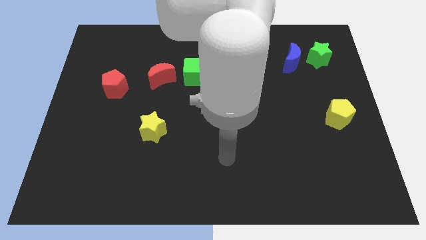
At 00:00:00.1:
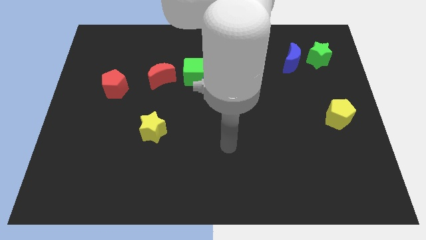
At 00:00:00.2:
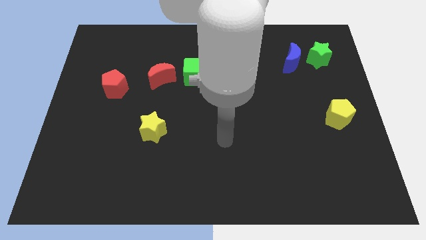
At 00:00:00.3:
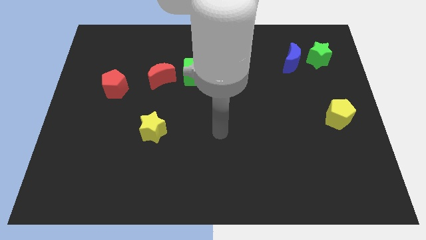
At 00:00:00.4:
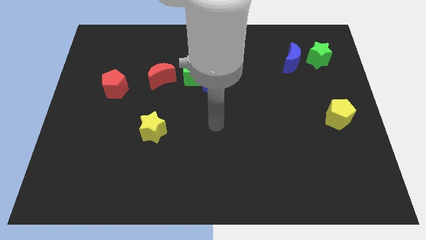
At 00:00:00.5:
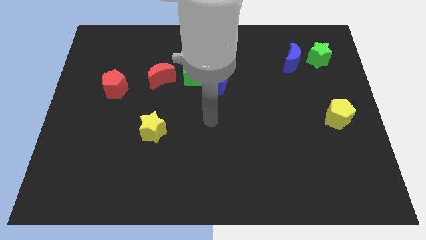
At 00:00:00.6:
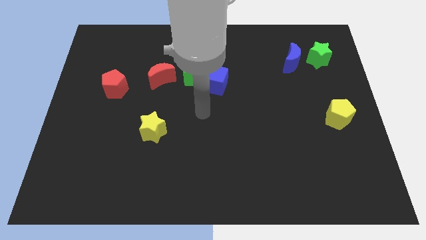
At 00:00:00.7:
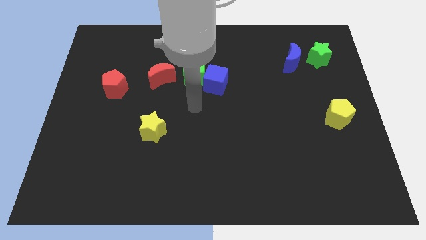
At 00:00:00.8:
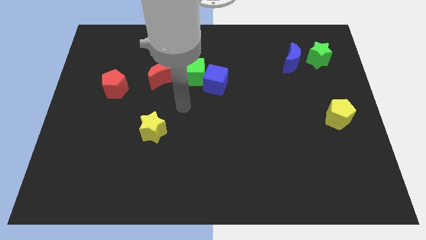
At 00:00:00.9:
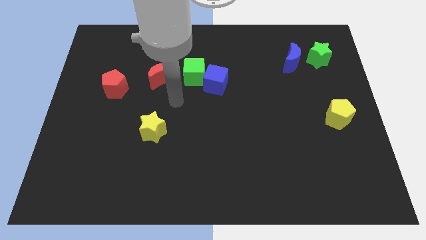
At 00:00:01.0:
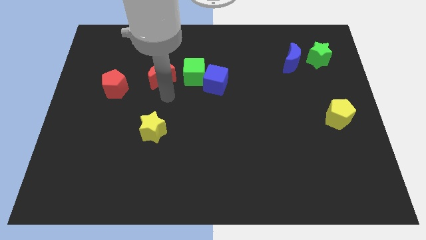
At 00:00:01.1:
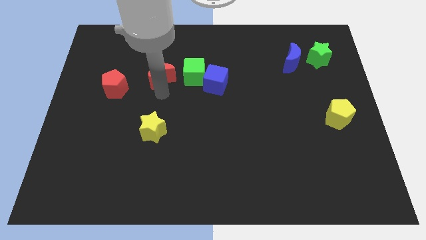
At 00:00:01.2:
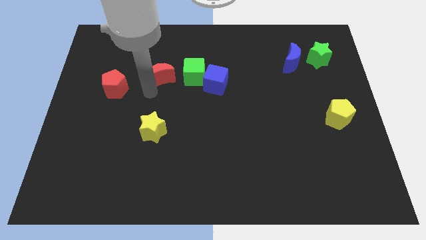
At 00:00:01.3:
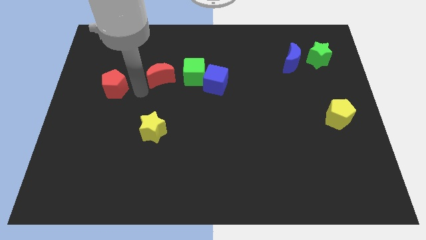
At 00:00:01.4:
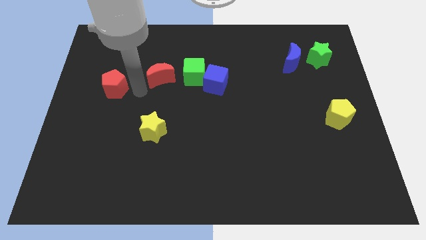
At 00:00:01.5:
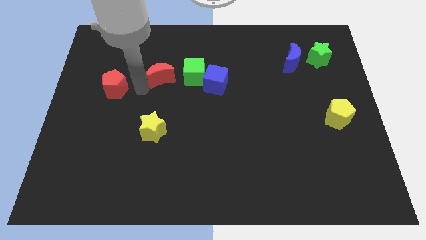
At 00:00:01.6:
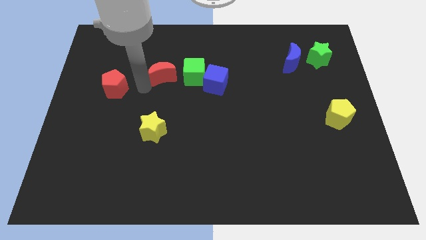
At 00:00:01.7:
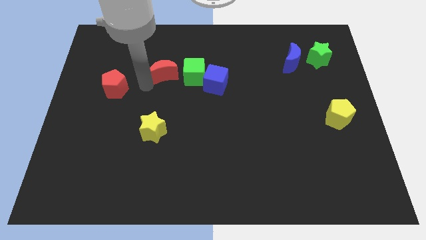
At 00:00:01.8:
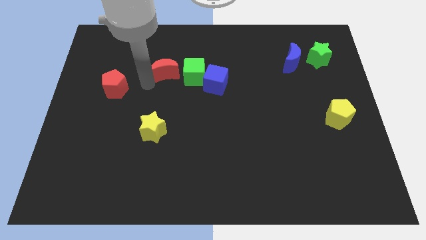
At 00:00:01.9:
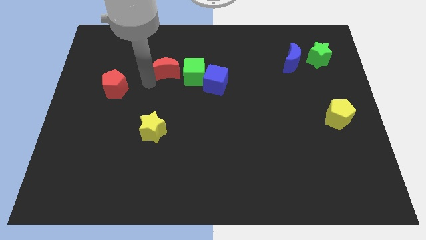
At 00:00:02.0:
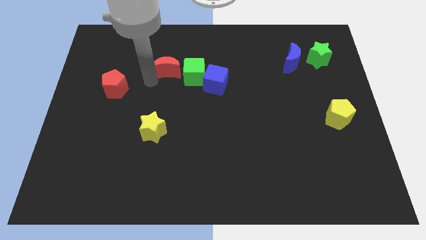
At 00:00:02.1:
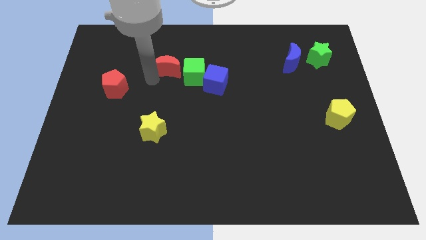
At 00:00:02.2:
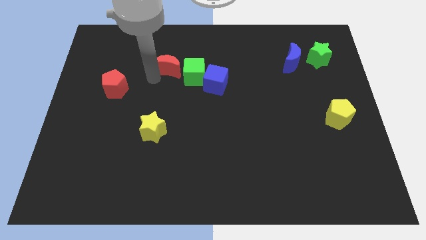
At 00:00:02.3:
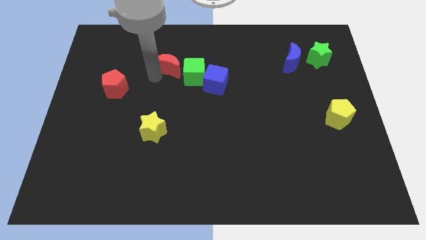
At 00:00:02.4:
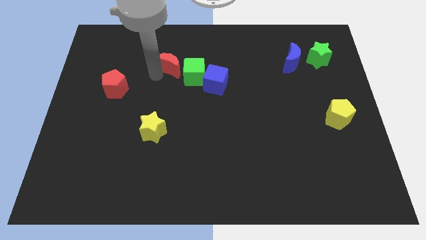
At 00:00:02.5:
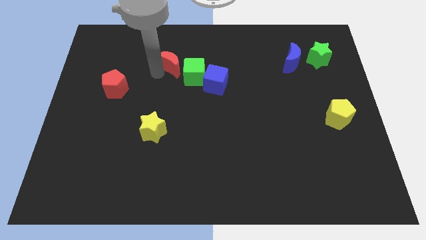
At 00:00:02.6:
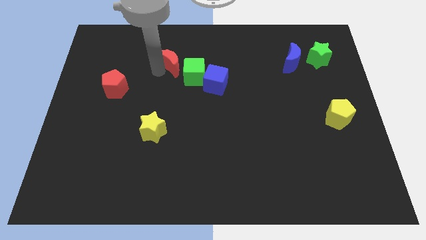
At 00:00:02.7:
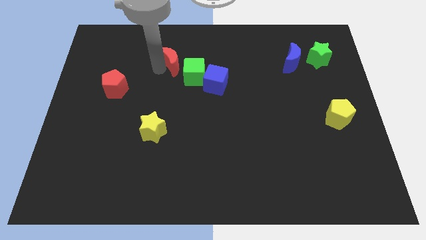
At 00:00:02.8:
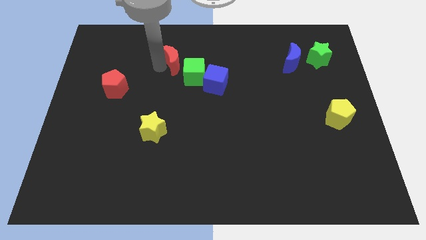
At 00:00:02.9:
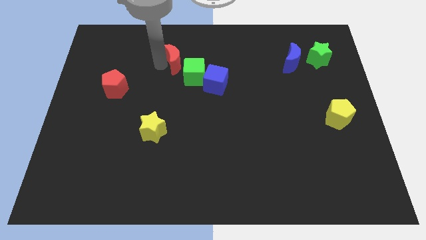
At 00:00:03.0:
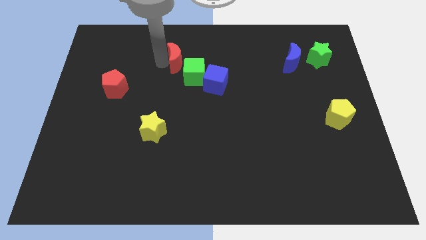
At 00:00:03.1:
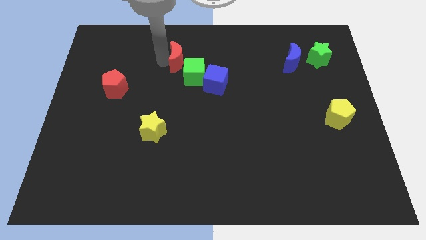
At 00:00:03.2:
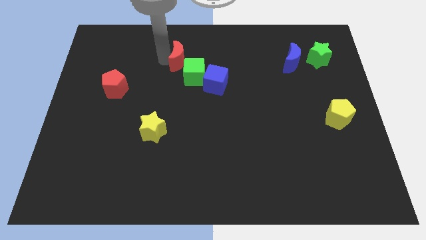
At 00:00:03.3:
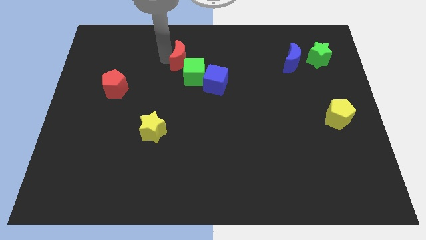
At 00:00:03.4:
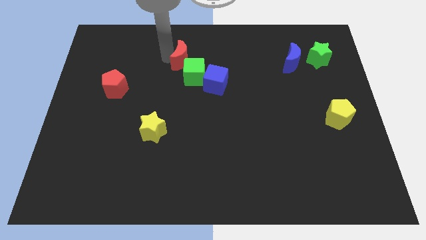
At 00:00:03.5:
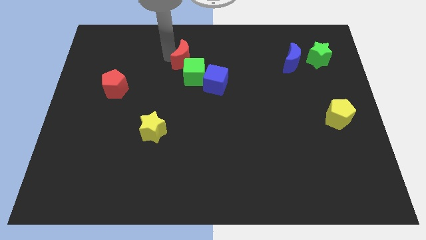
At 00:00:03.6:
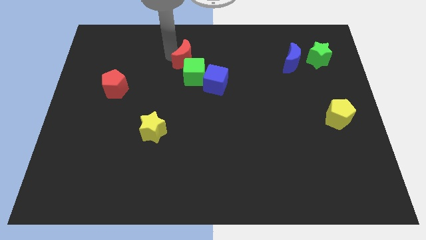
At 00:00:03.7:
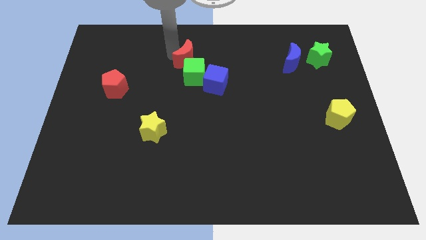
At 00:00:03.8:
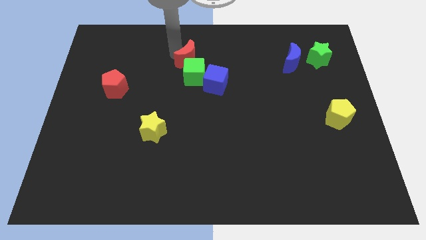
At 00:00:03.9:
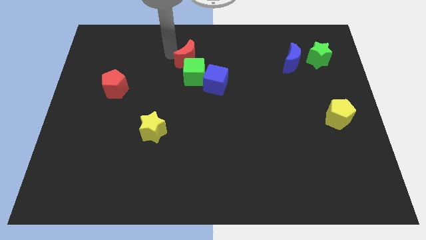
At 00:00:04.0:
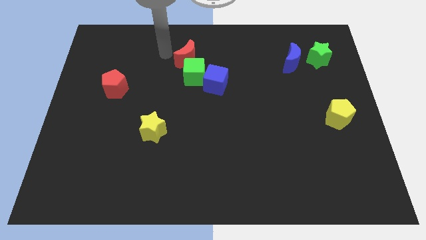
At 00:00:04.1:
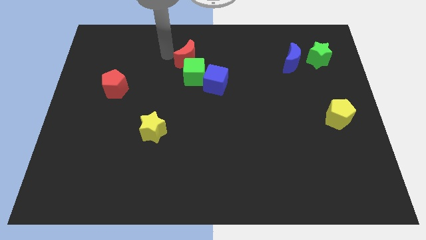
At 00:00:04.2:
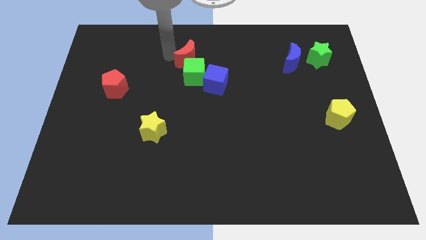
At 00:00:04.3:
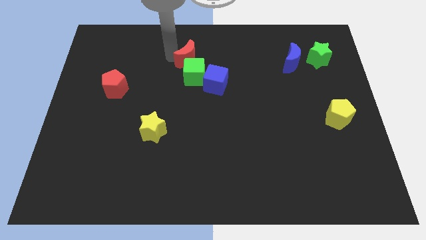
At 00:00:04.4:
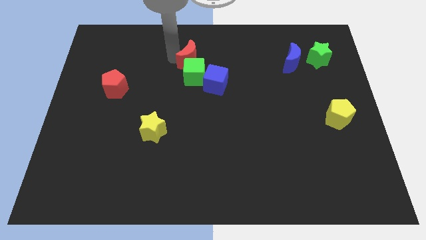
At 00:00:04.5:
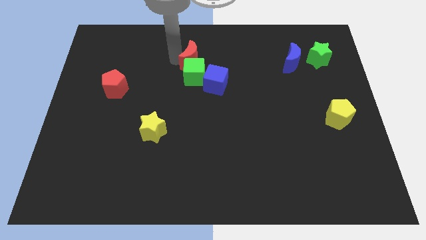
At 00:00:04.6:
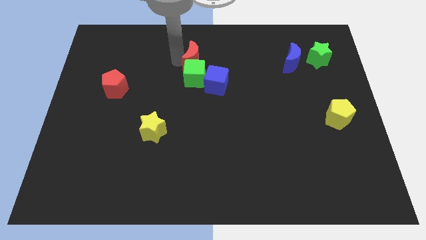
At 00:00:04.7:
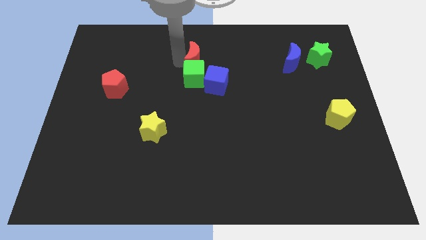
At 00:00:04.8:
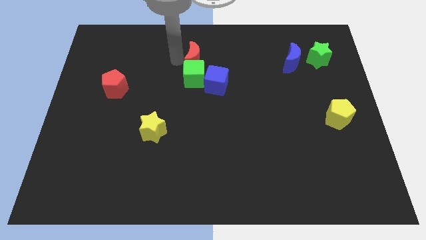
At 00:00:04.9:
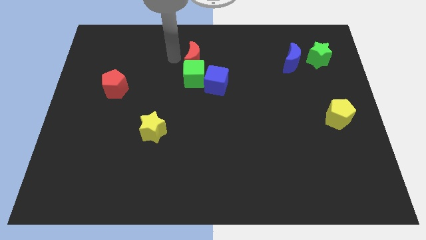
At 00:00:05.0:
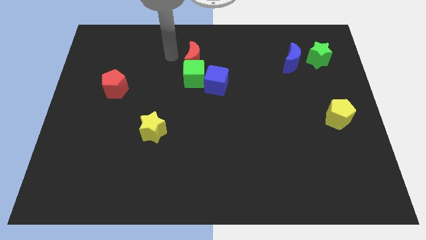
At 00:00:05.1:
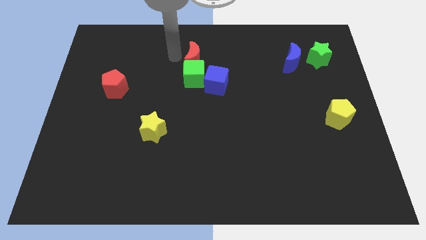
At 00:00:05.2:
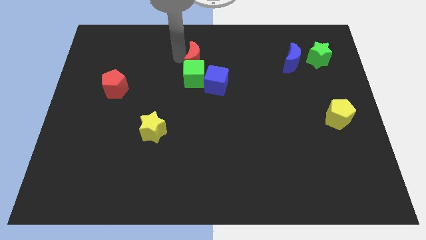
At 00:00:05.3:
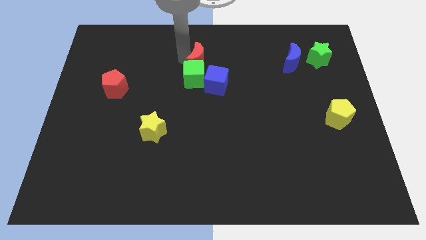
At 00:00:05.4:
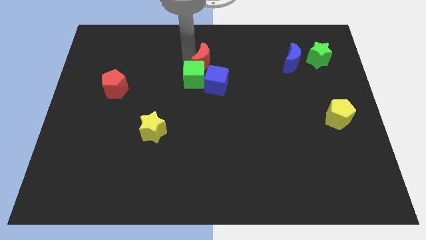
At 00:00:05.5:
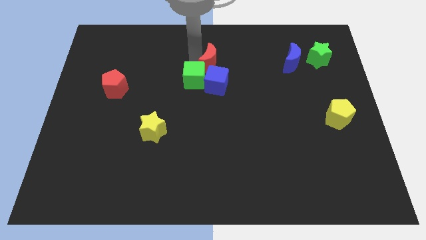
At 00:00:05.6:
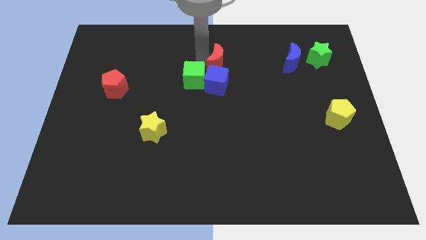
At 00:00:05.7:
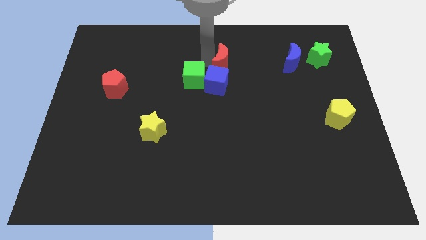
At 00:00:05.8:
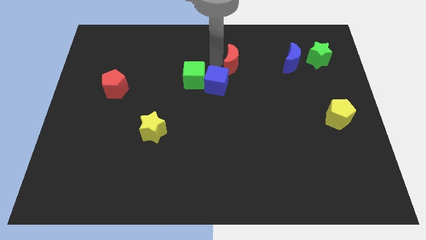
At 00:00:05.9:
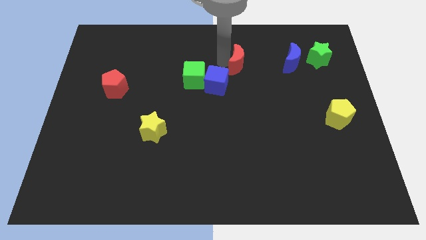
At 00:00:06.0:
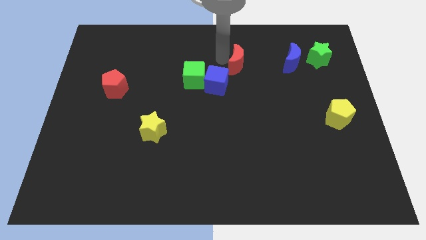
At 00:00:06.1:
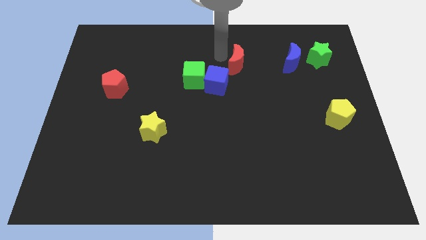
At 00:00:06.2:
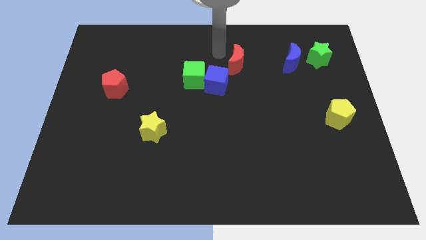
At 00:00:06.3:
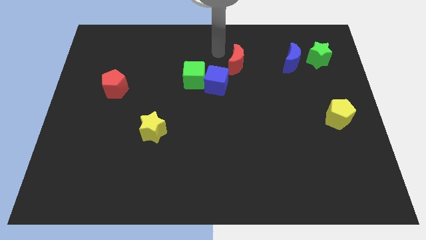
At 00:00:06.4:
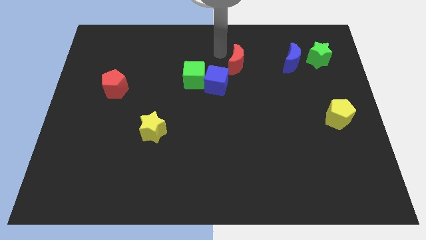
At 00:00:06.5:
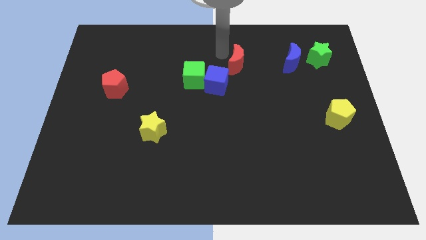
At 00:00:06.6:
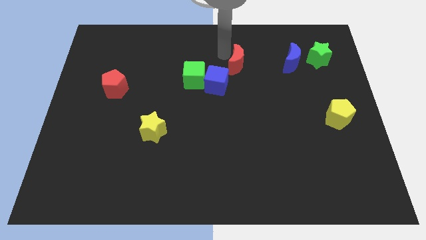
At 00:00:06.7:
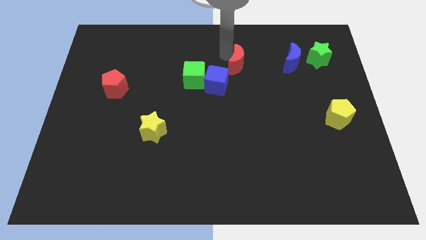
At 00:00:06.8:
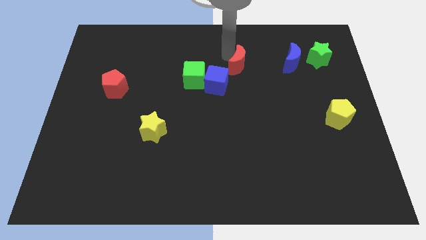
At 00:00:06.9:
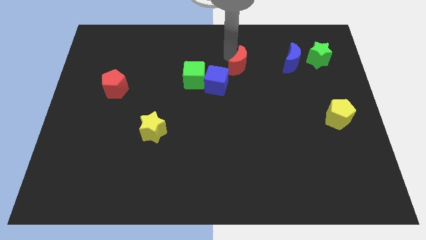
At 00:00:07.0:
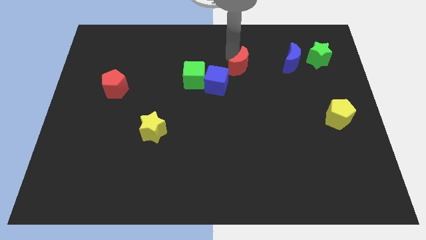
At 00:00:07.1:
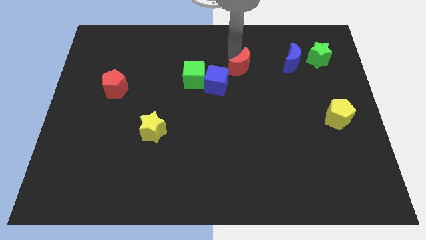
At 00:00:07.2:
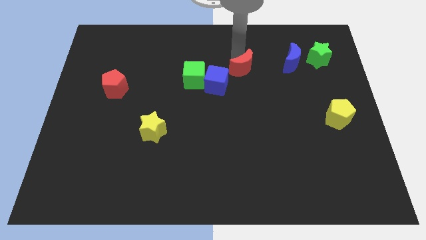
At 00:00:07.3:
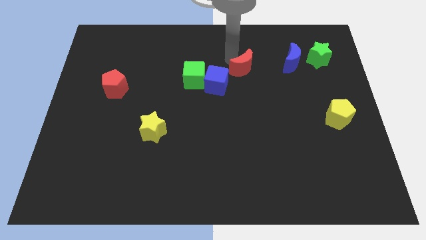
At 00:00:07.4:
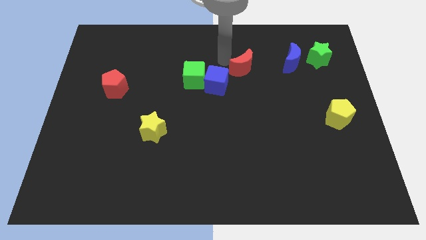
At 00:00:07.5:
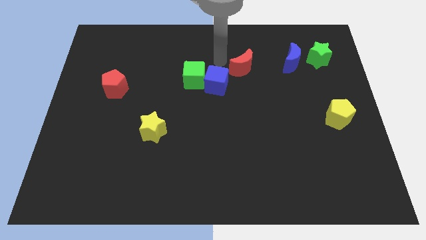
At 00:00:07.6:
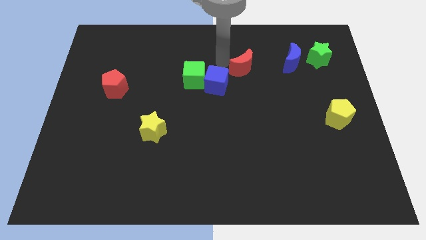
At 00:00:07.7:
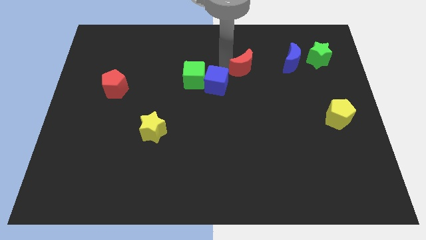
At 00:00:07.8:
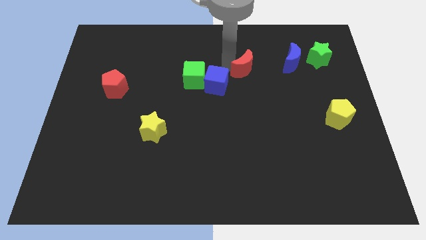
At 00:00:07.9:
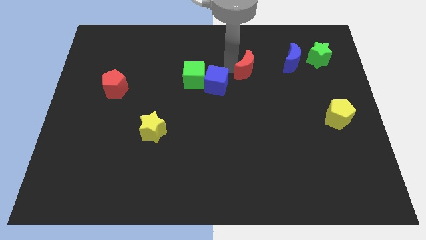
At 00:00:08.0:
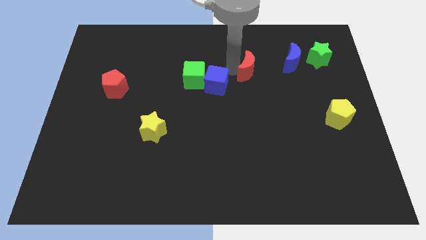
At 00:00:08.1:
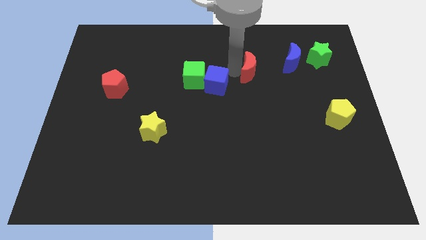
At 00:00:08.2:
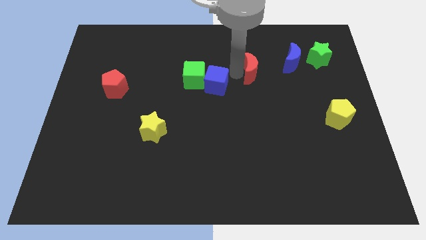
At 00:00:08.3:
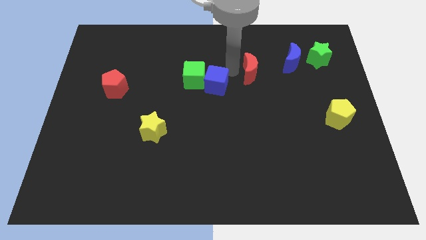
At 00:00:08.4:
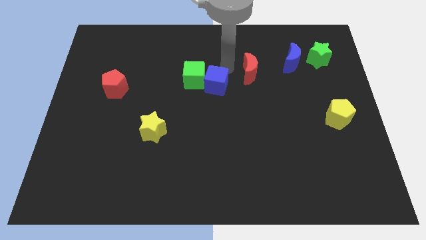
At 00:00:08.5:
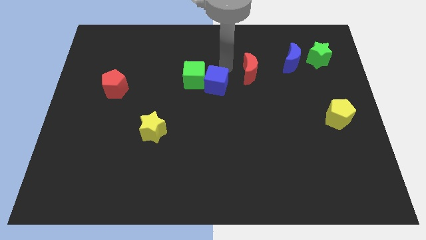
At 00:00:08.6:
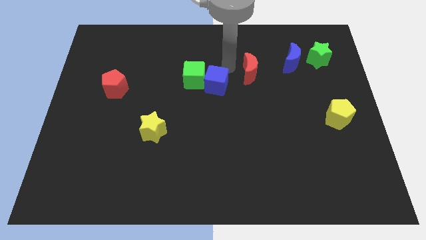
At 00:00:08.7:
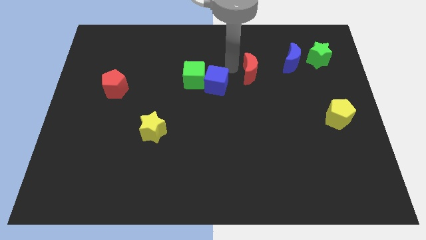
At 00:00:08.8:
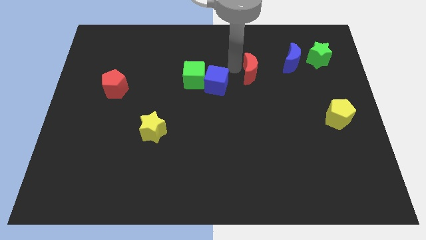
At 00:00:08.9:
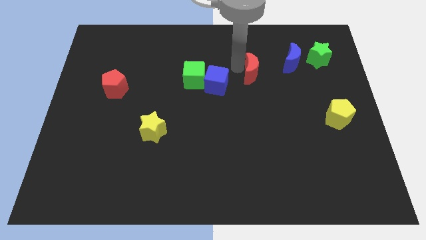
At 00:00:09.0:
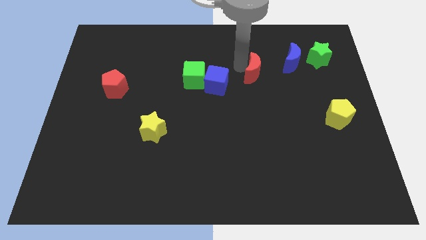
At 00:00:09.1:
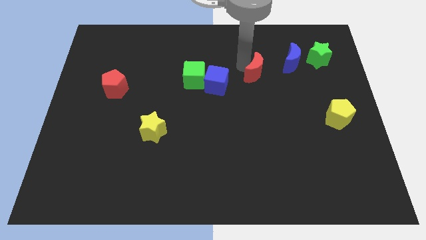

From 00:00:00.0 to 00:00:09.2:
slide the red moon diagonally down and to the left of the blue moon
